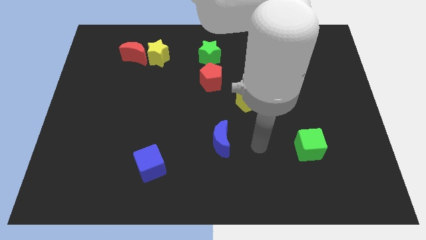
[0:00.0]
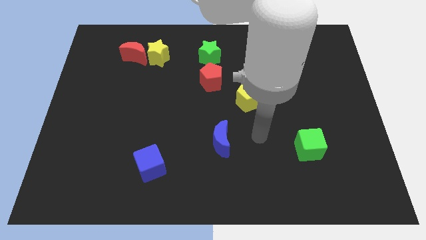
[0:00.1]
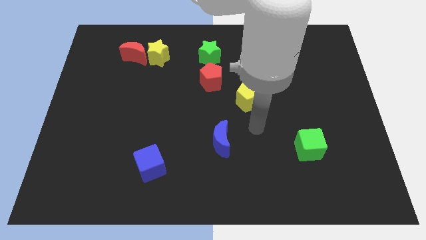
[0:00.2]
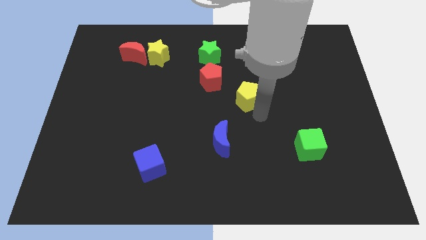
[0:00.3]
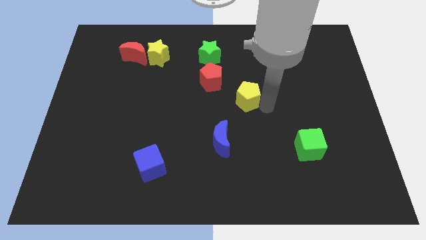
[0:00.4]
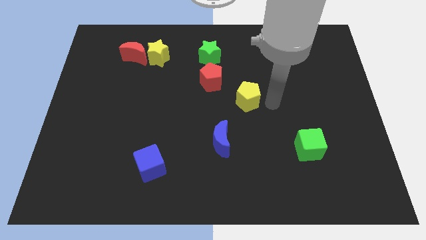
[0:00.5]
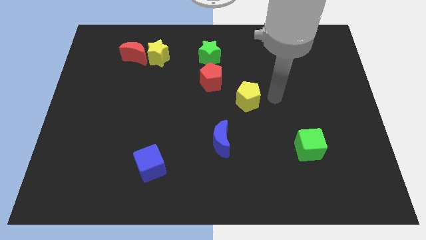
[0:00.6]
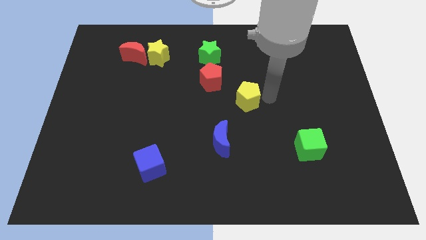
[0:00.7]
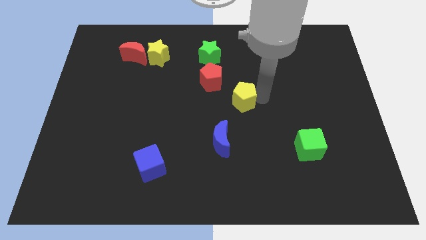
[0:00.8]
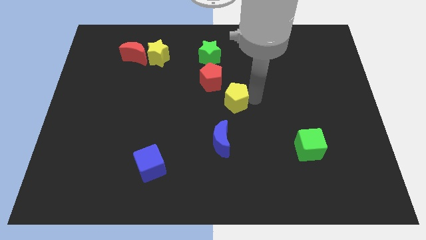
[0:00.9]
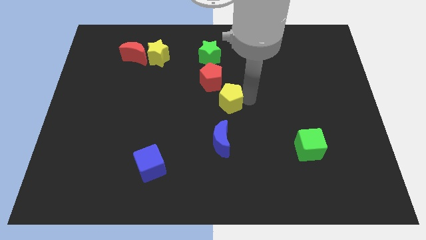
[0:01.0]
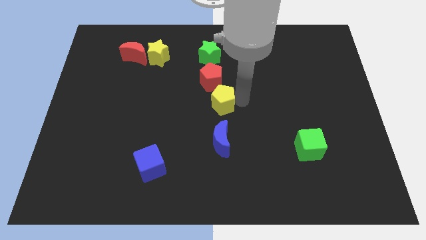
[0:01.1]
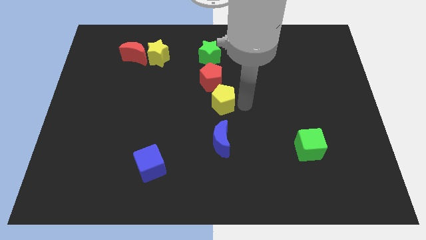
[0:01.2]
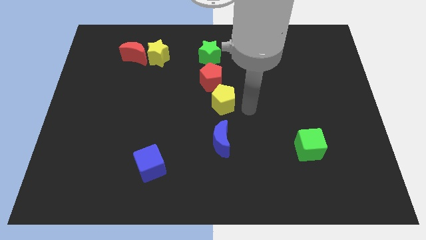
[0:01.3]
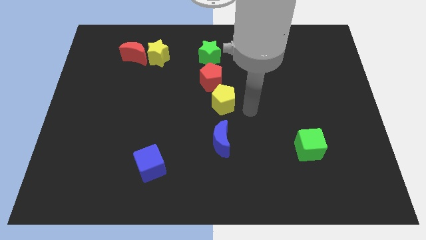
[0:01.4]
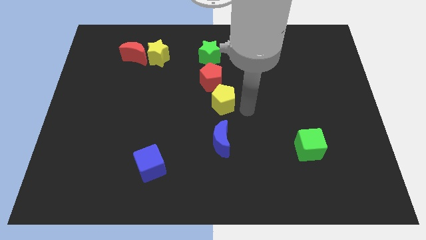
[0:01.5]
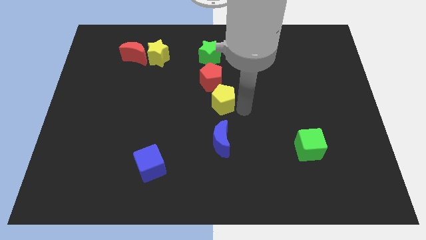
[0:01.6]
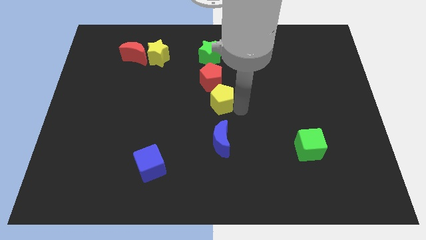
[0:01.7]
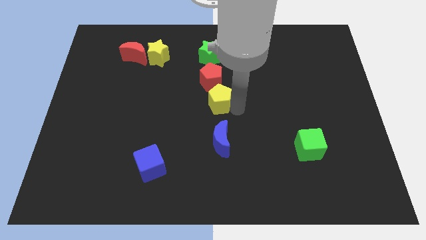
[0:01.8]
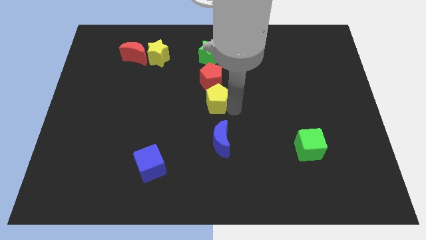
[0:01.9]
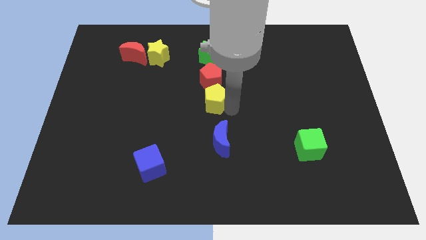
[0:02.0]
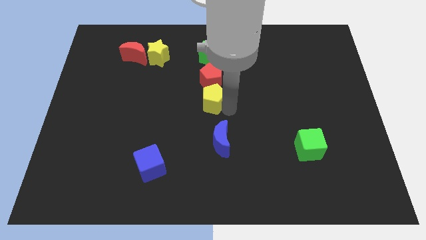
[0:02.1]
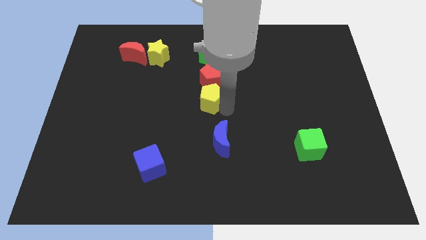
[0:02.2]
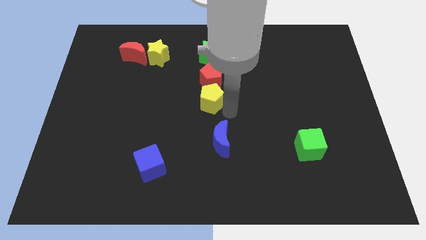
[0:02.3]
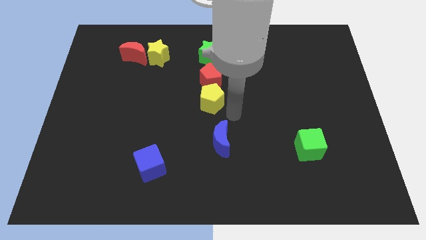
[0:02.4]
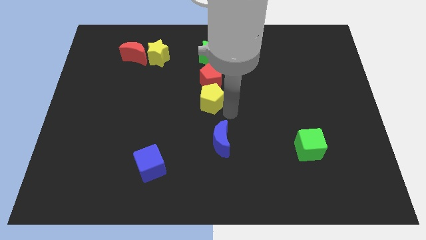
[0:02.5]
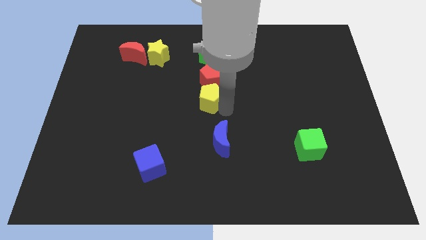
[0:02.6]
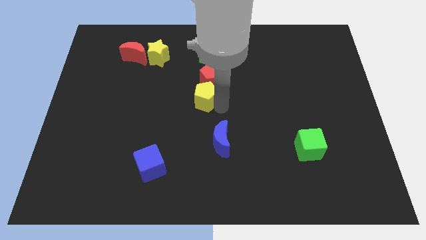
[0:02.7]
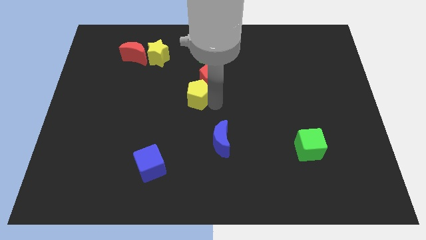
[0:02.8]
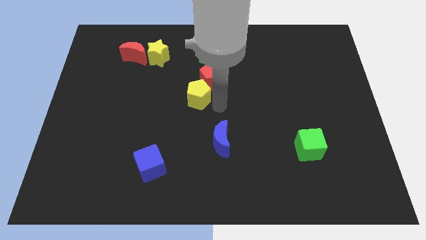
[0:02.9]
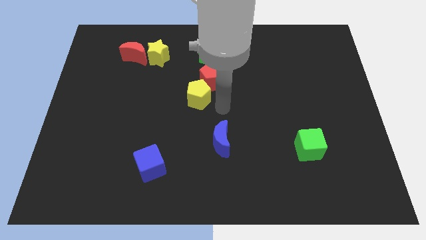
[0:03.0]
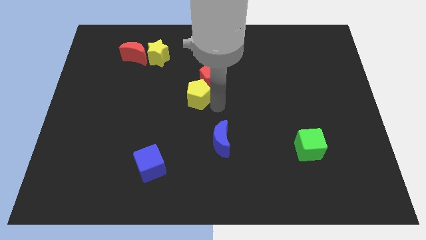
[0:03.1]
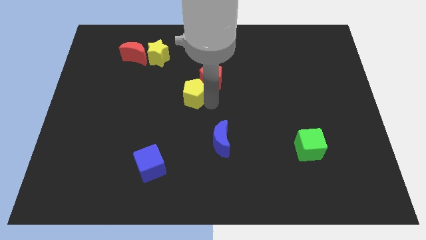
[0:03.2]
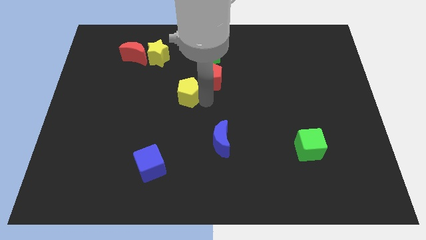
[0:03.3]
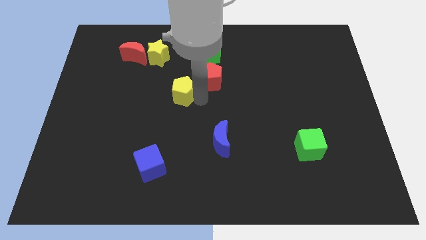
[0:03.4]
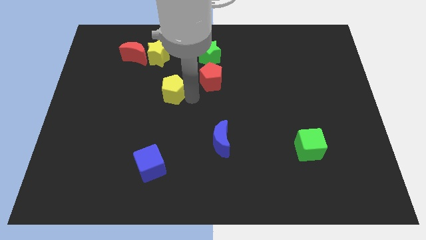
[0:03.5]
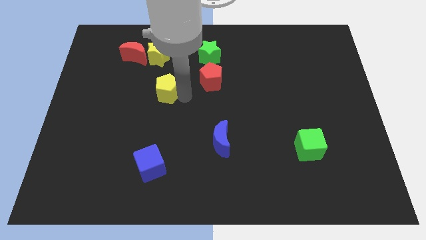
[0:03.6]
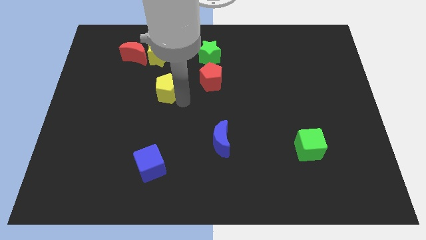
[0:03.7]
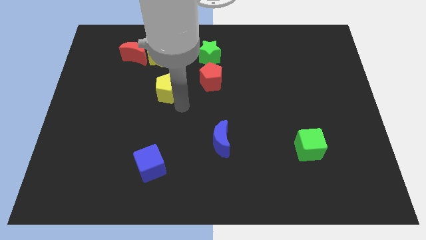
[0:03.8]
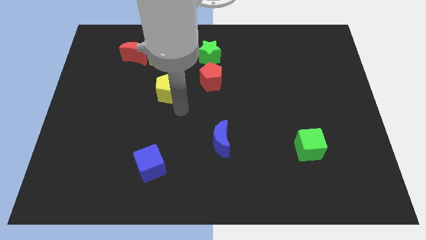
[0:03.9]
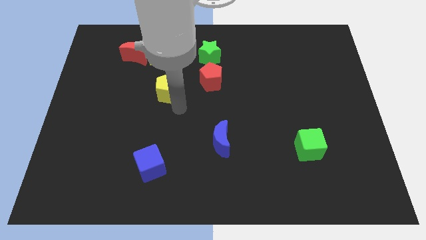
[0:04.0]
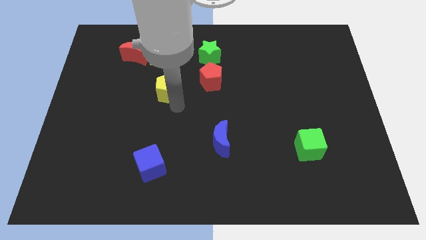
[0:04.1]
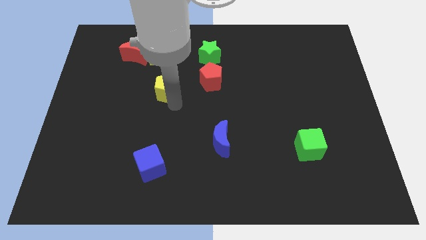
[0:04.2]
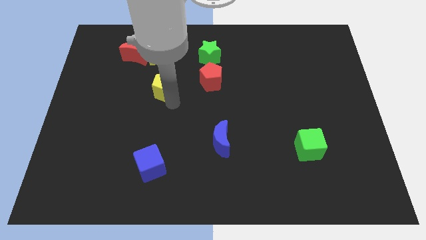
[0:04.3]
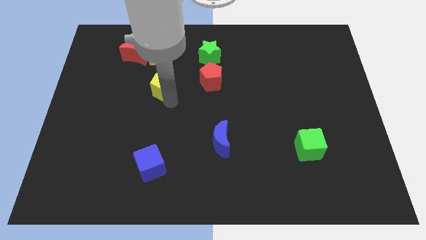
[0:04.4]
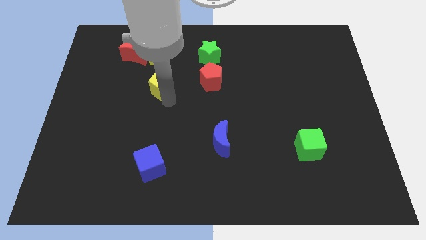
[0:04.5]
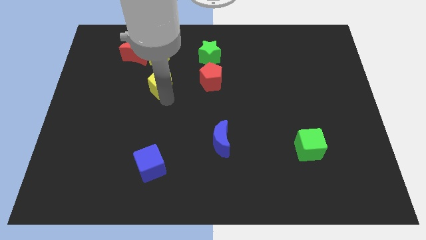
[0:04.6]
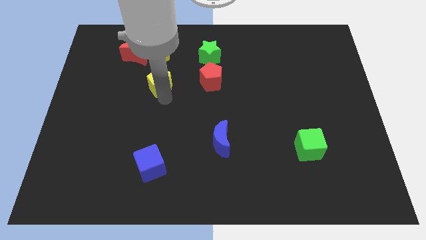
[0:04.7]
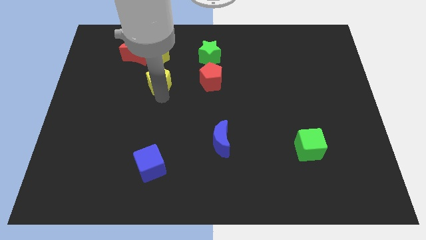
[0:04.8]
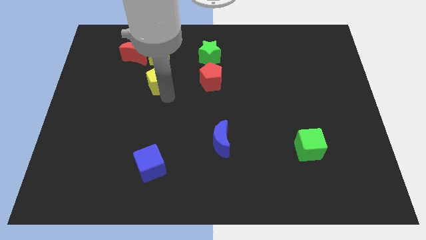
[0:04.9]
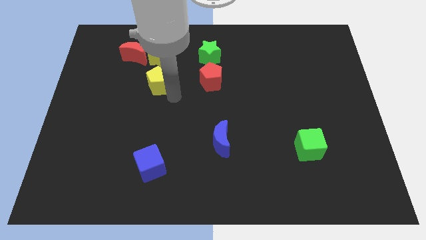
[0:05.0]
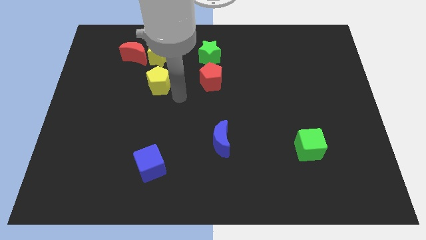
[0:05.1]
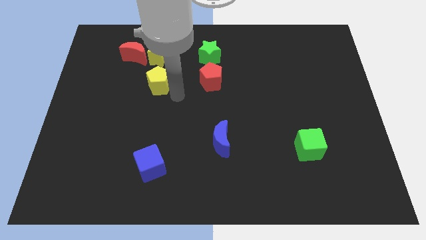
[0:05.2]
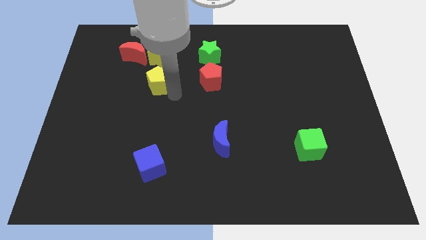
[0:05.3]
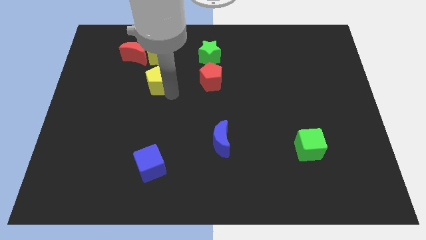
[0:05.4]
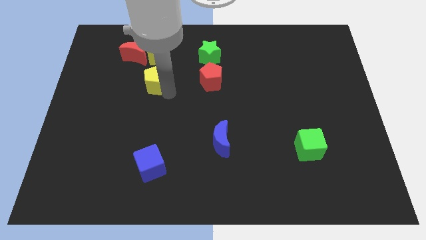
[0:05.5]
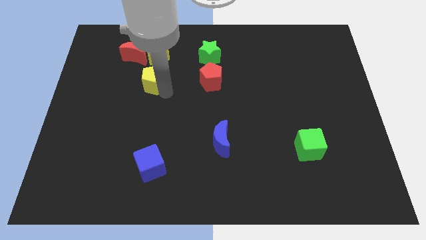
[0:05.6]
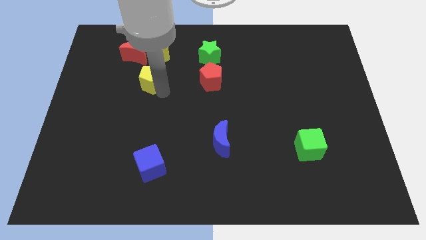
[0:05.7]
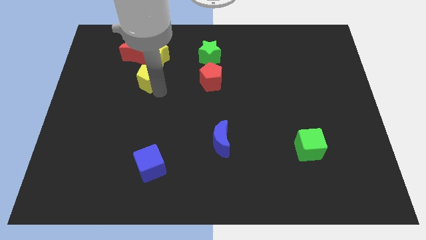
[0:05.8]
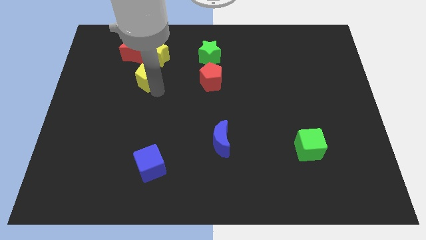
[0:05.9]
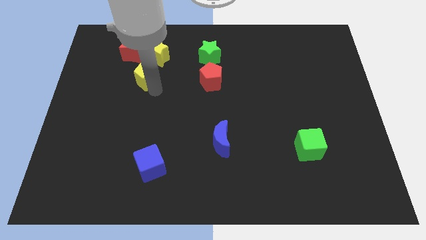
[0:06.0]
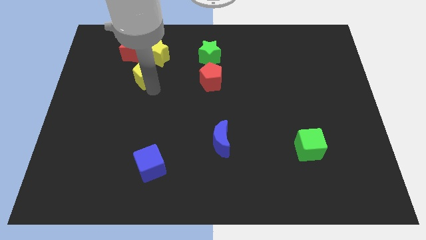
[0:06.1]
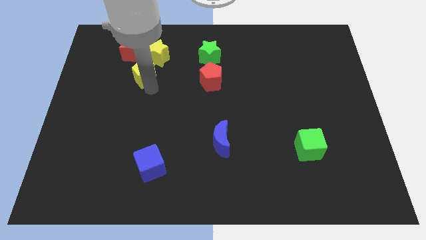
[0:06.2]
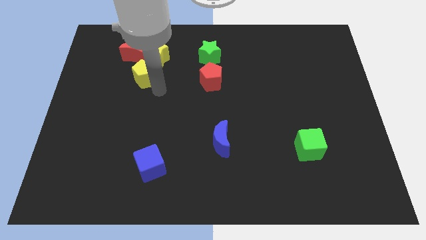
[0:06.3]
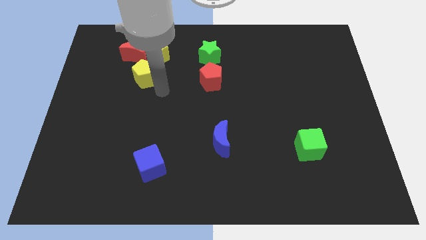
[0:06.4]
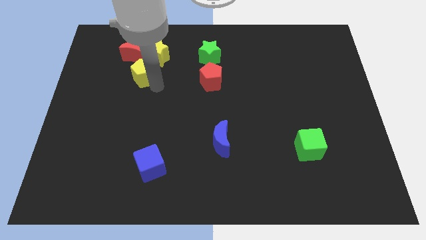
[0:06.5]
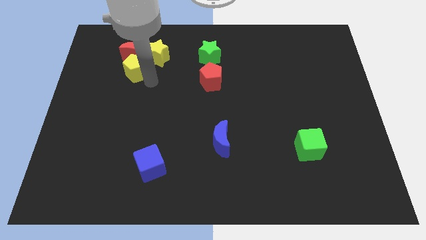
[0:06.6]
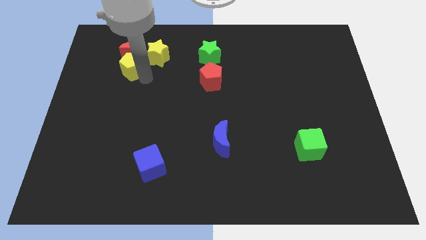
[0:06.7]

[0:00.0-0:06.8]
slide the yellow pentagon just left of the yellow star
